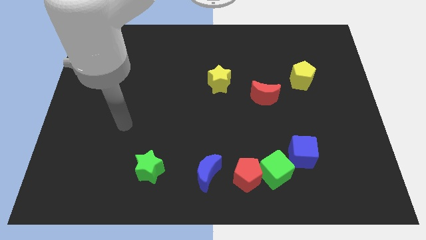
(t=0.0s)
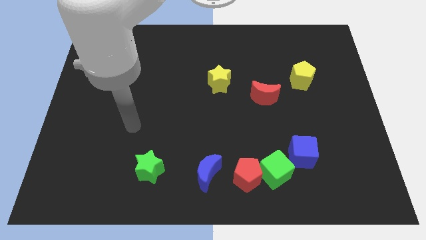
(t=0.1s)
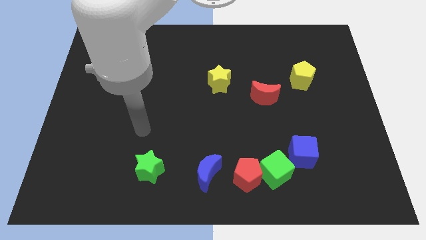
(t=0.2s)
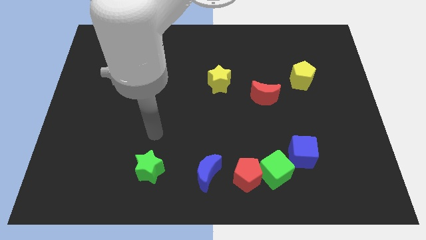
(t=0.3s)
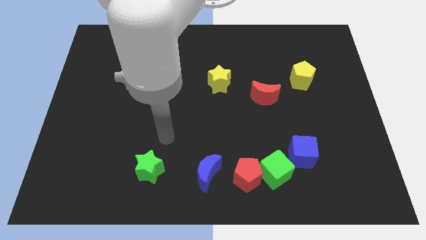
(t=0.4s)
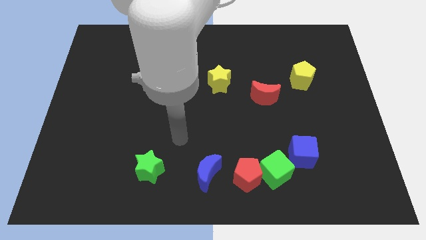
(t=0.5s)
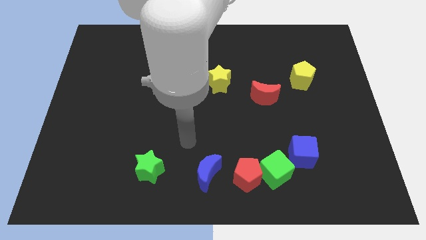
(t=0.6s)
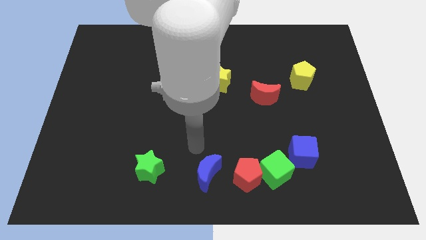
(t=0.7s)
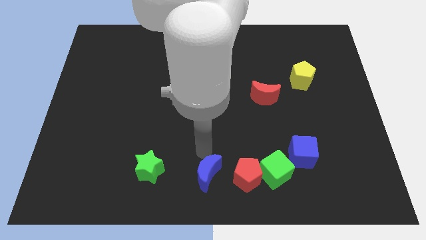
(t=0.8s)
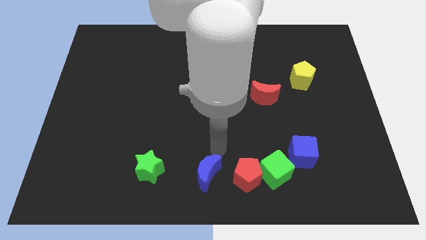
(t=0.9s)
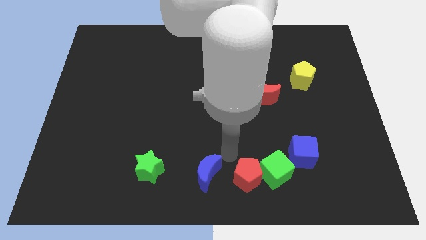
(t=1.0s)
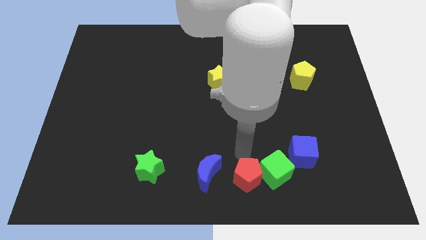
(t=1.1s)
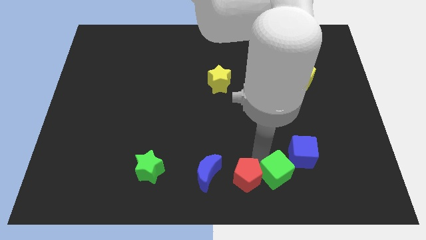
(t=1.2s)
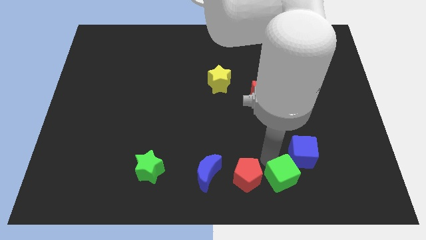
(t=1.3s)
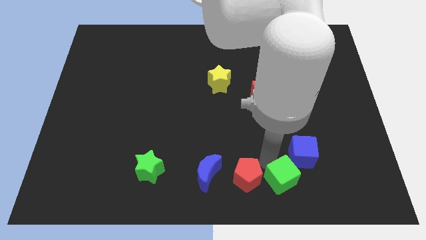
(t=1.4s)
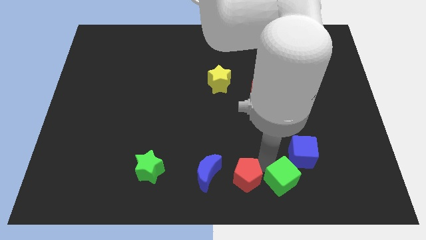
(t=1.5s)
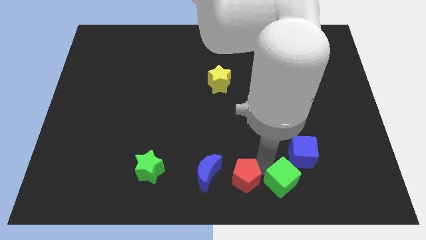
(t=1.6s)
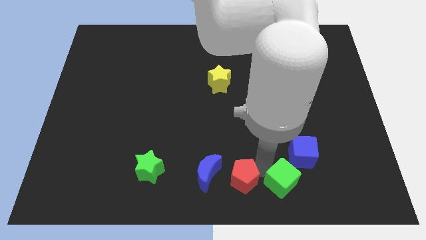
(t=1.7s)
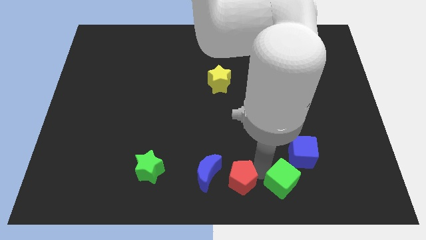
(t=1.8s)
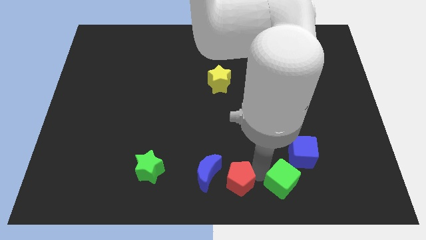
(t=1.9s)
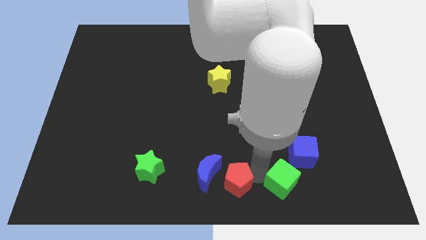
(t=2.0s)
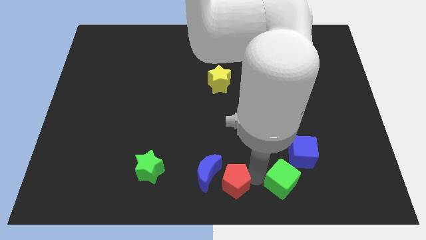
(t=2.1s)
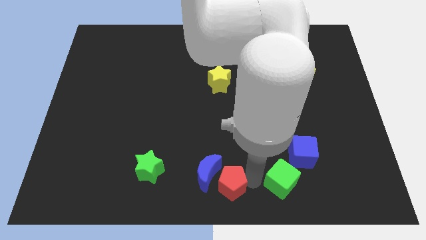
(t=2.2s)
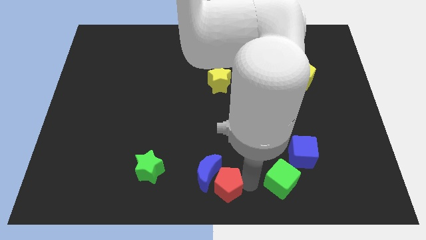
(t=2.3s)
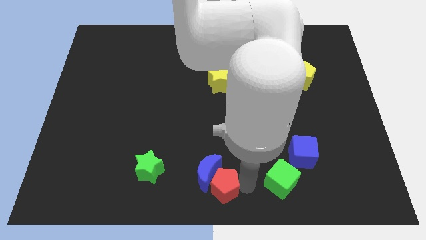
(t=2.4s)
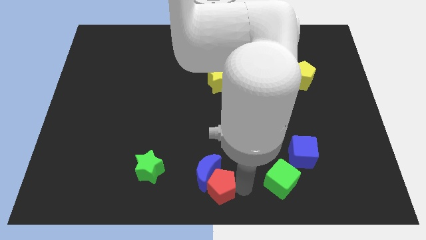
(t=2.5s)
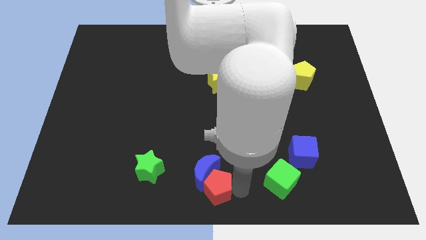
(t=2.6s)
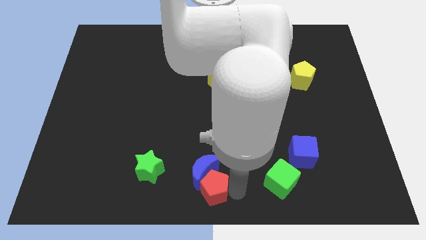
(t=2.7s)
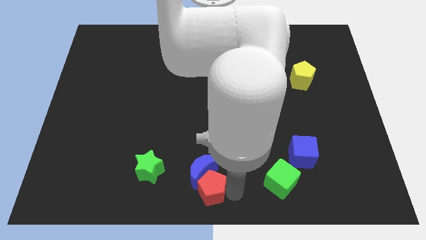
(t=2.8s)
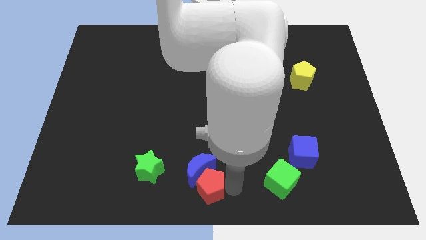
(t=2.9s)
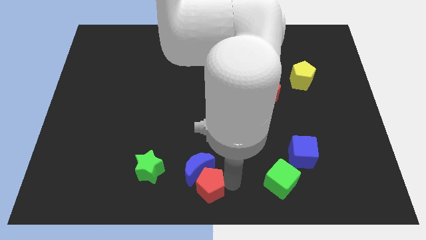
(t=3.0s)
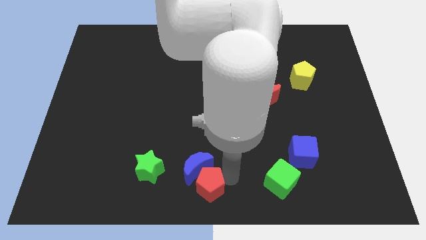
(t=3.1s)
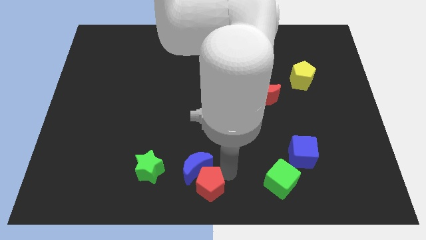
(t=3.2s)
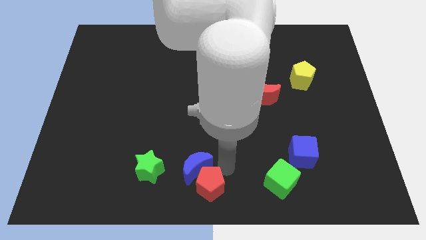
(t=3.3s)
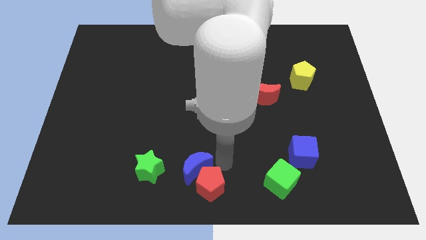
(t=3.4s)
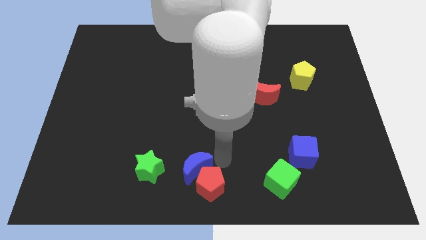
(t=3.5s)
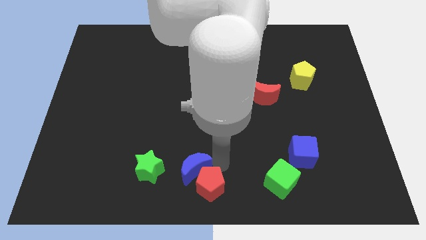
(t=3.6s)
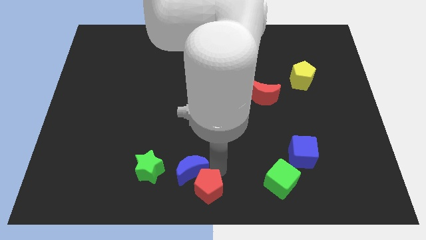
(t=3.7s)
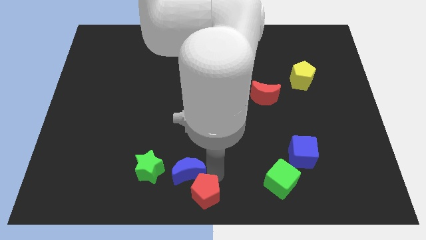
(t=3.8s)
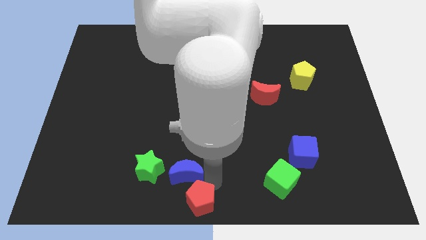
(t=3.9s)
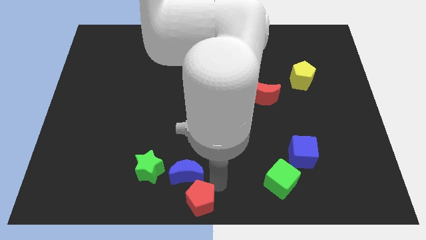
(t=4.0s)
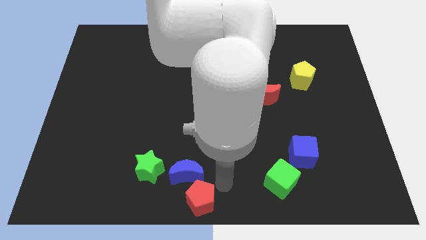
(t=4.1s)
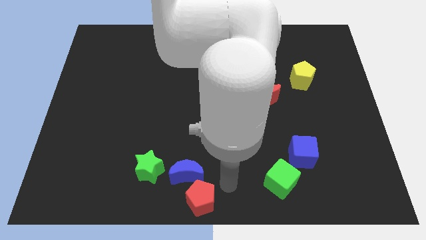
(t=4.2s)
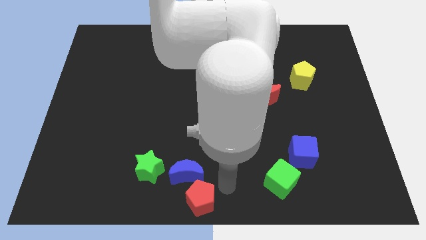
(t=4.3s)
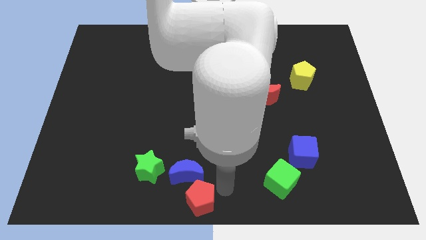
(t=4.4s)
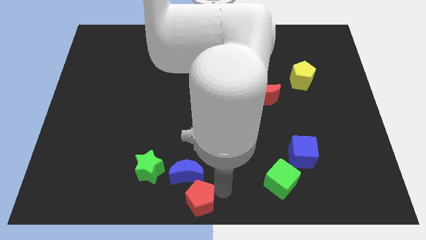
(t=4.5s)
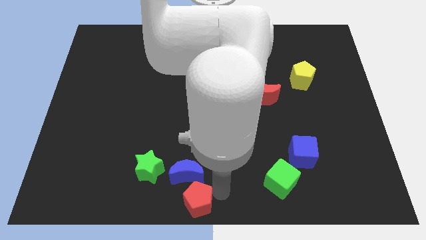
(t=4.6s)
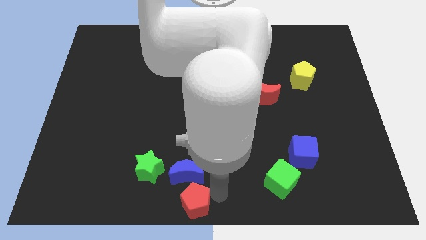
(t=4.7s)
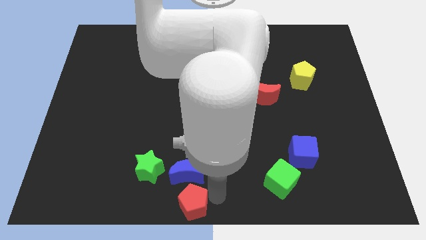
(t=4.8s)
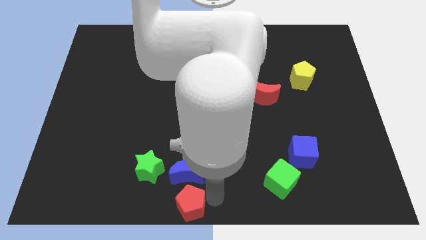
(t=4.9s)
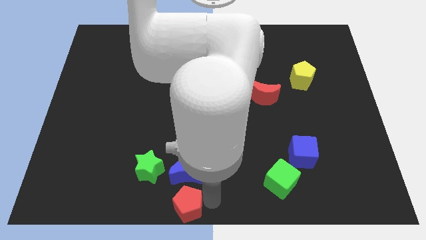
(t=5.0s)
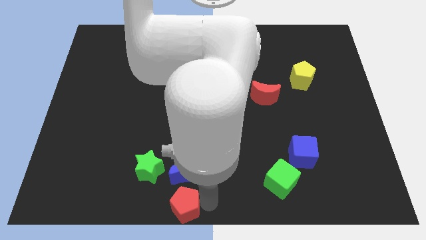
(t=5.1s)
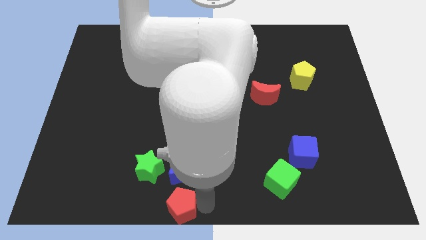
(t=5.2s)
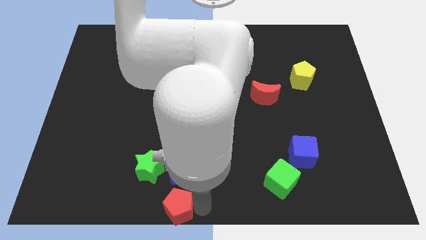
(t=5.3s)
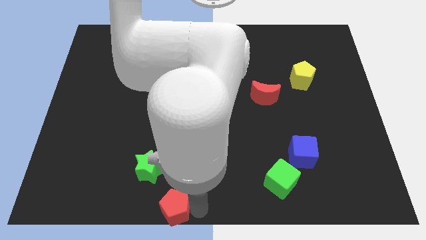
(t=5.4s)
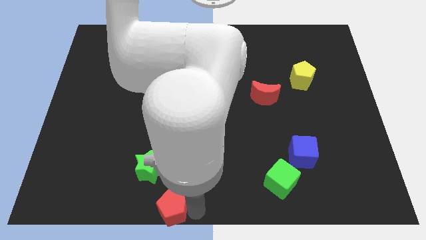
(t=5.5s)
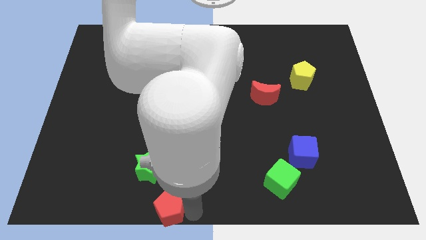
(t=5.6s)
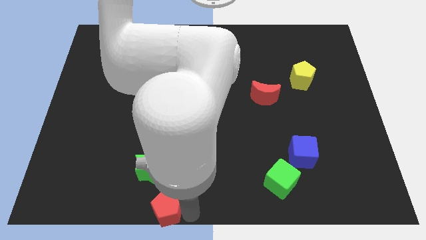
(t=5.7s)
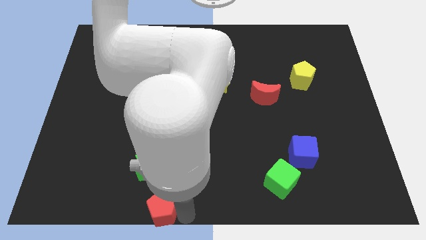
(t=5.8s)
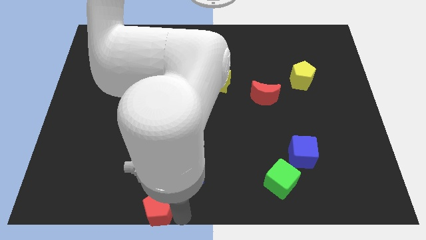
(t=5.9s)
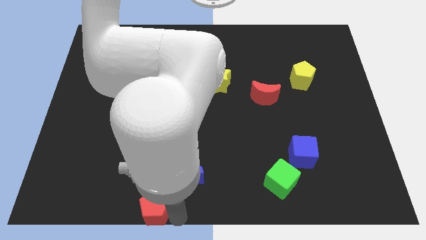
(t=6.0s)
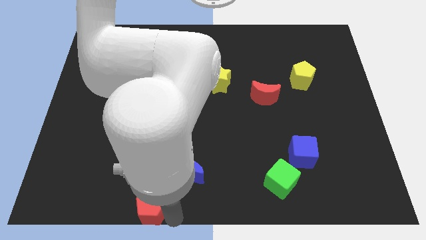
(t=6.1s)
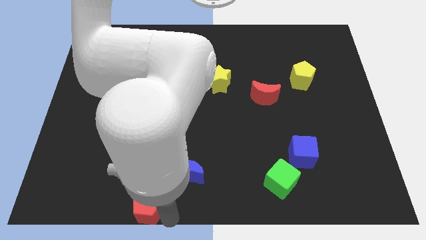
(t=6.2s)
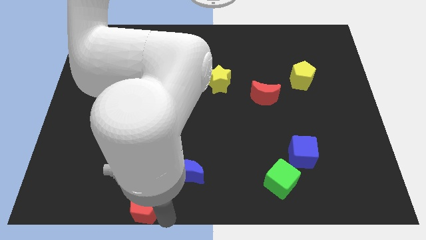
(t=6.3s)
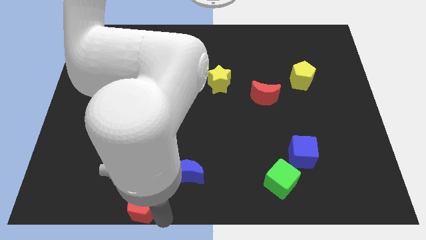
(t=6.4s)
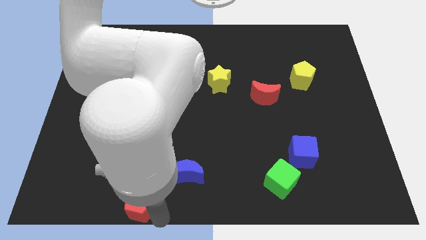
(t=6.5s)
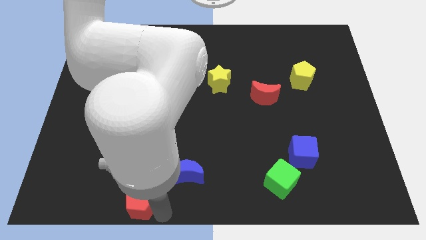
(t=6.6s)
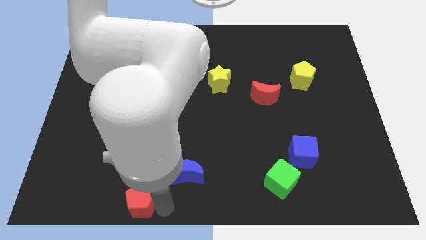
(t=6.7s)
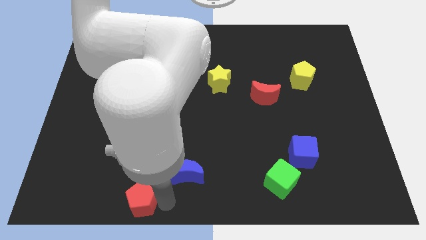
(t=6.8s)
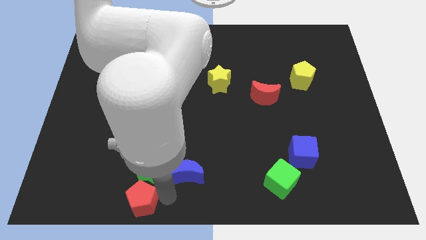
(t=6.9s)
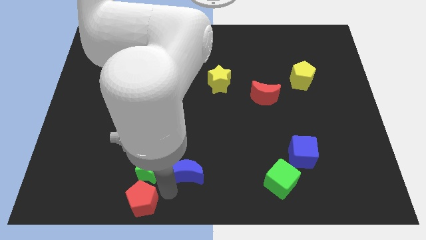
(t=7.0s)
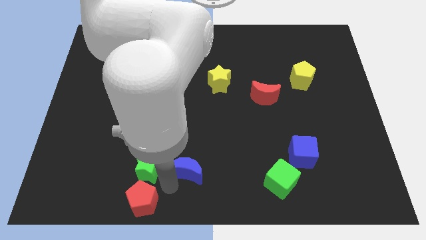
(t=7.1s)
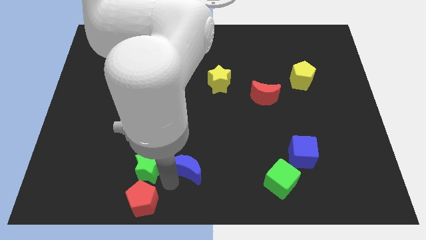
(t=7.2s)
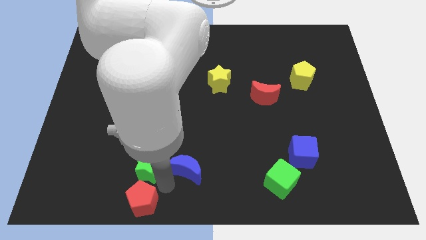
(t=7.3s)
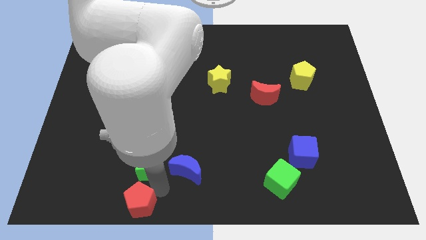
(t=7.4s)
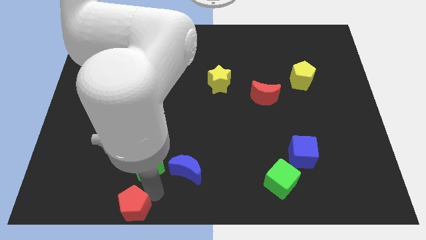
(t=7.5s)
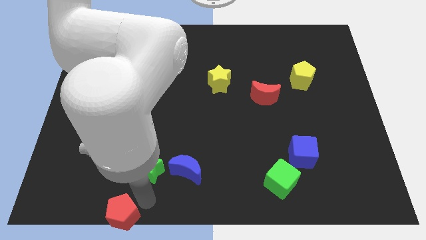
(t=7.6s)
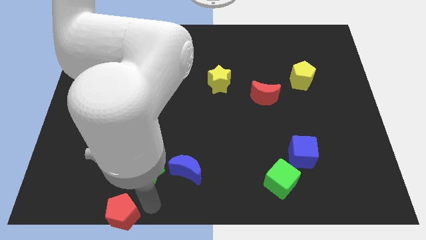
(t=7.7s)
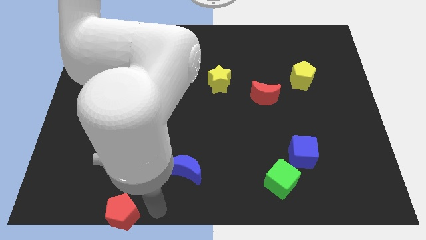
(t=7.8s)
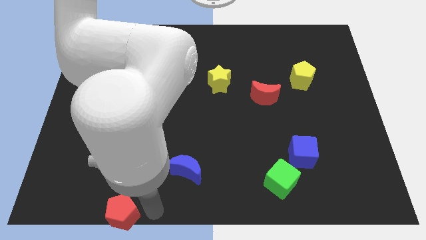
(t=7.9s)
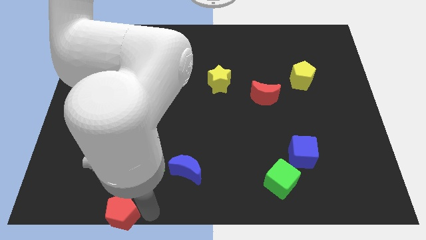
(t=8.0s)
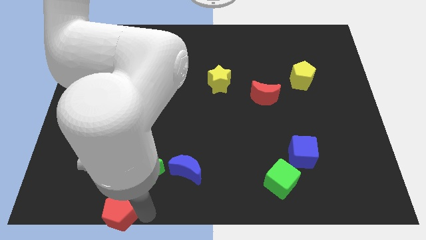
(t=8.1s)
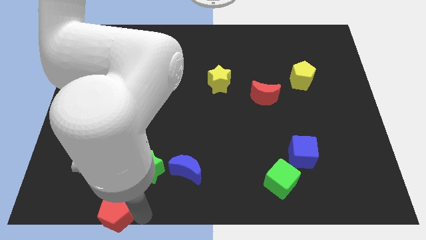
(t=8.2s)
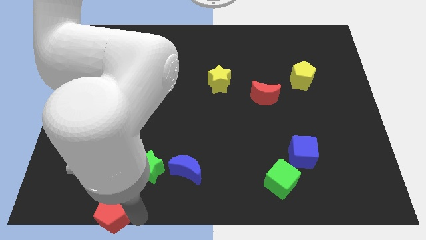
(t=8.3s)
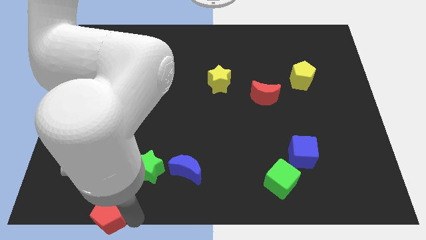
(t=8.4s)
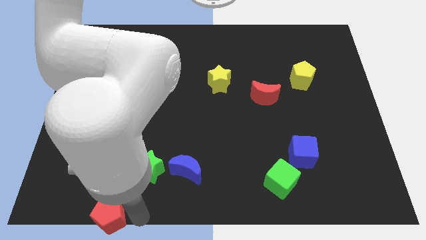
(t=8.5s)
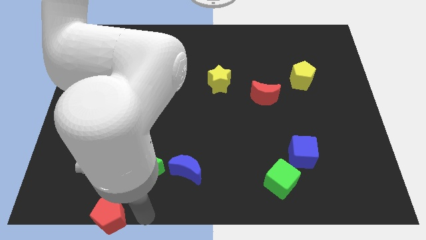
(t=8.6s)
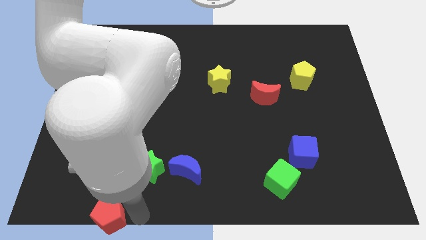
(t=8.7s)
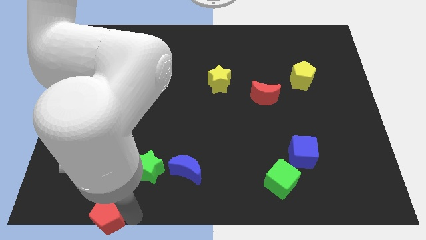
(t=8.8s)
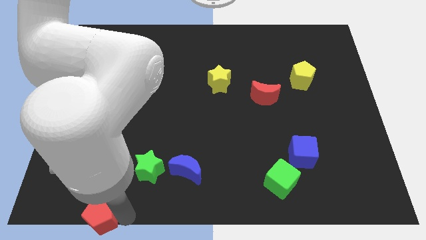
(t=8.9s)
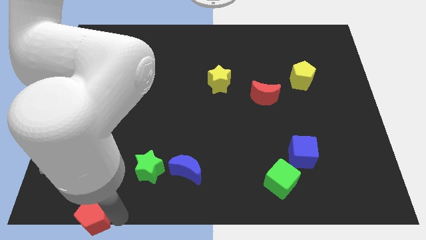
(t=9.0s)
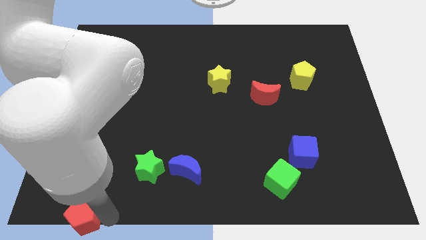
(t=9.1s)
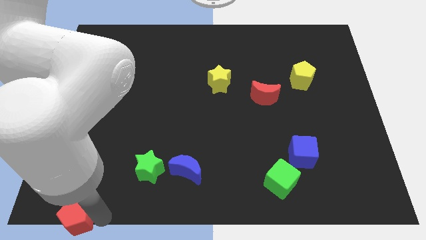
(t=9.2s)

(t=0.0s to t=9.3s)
move the red pentagon to the bottom left corner
